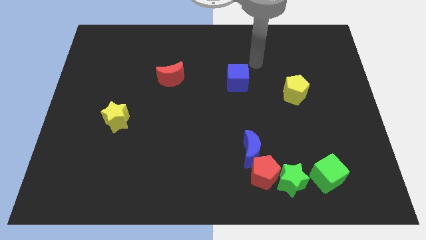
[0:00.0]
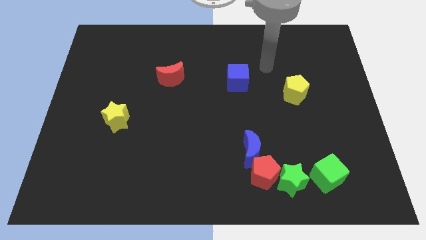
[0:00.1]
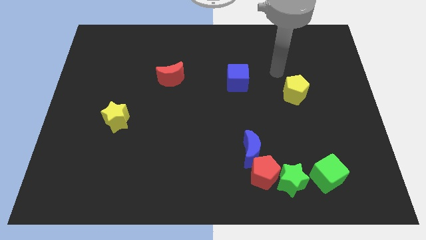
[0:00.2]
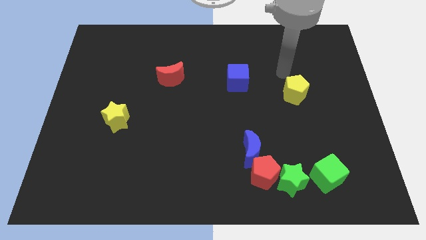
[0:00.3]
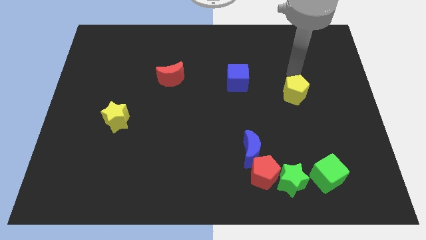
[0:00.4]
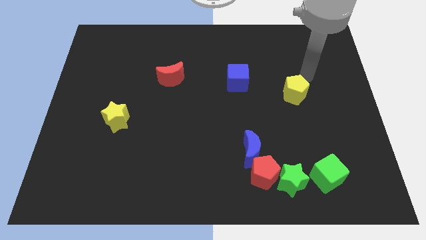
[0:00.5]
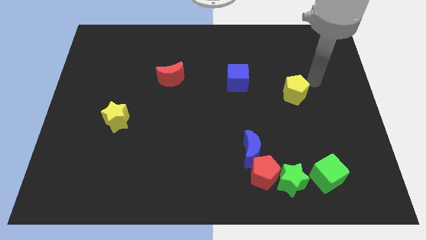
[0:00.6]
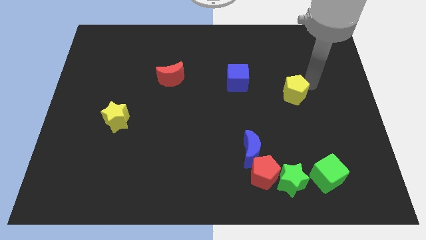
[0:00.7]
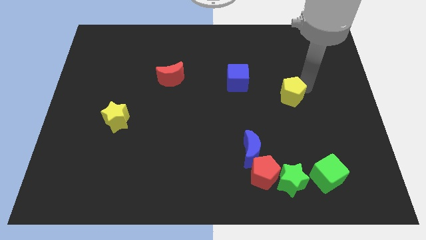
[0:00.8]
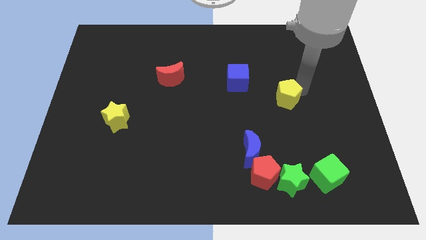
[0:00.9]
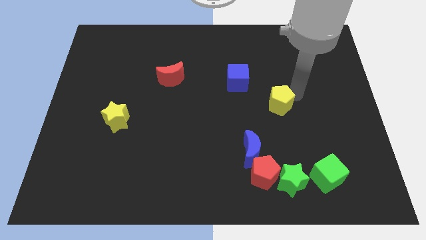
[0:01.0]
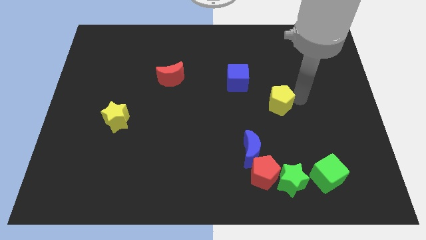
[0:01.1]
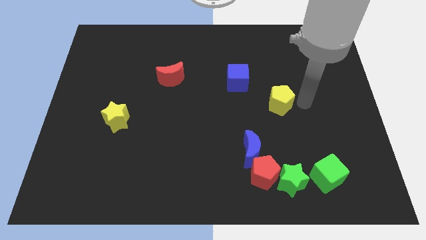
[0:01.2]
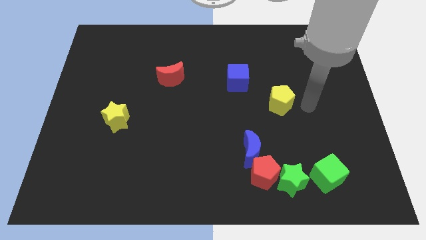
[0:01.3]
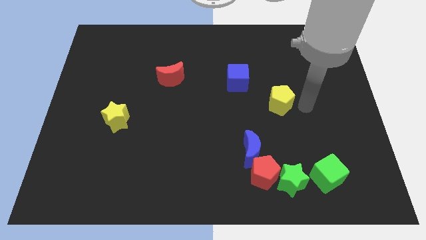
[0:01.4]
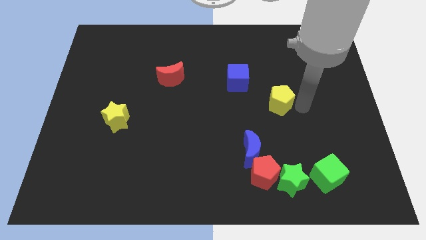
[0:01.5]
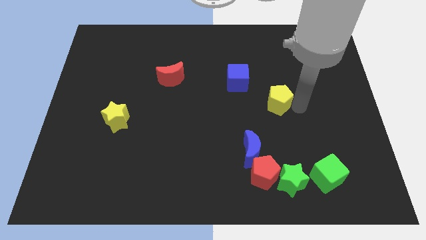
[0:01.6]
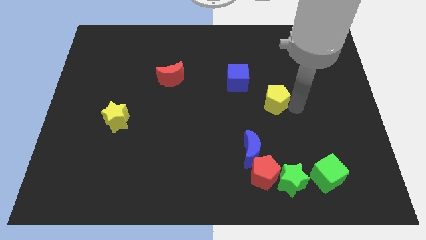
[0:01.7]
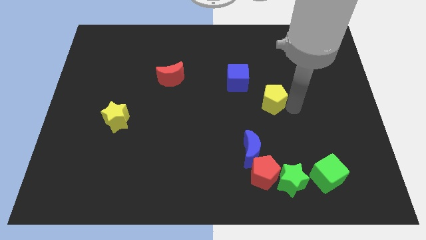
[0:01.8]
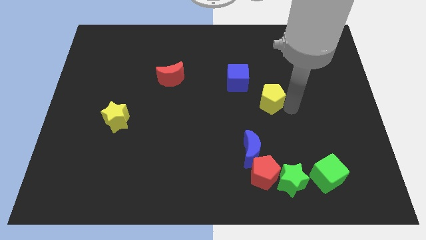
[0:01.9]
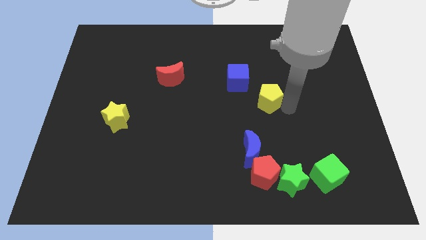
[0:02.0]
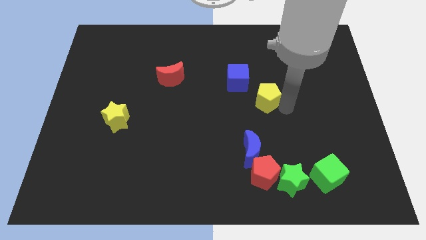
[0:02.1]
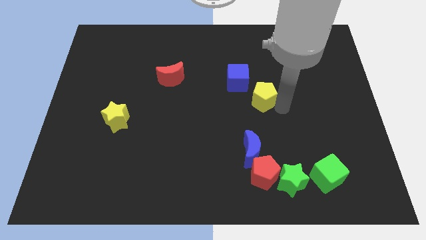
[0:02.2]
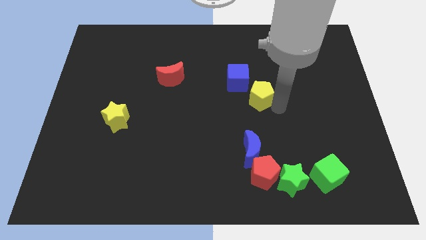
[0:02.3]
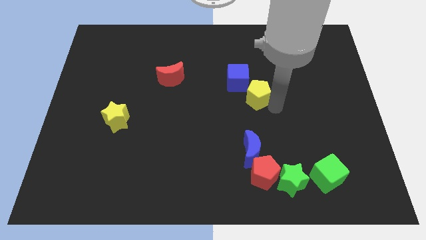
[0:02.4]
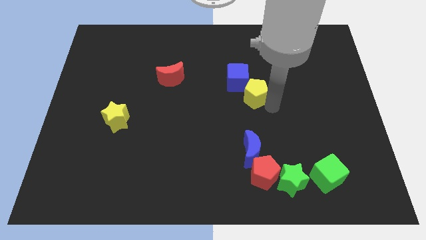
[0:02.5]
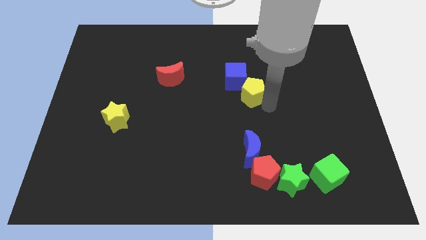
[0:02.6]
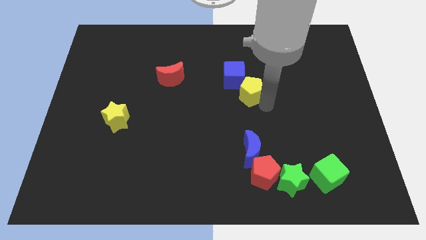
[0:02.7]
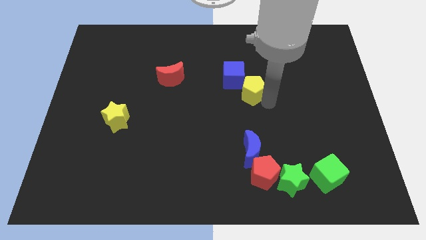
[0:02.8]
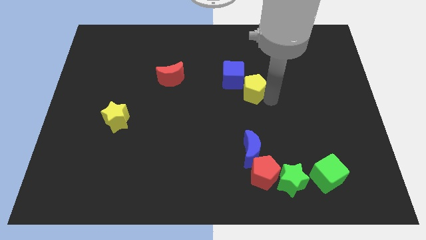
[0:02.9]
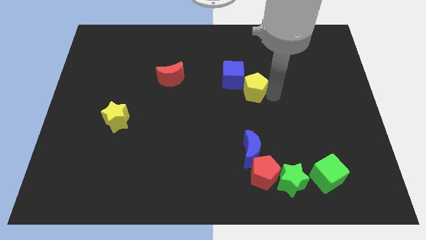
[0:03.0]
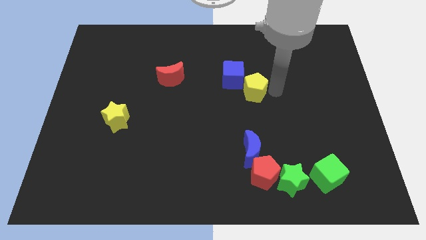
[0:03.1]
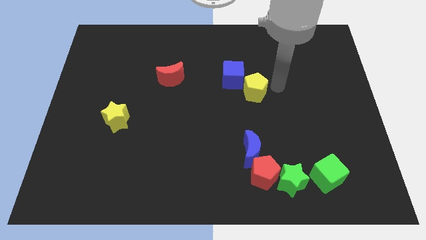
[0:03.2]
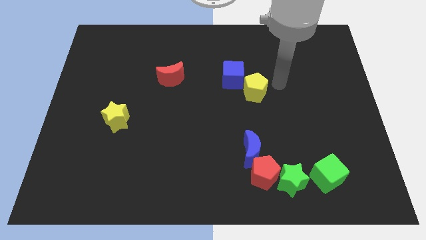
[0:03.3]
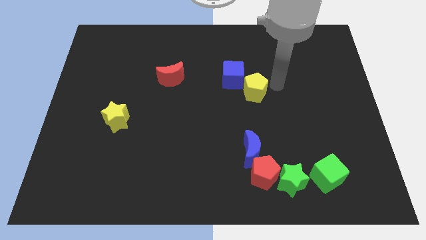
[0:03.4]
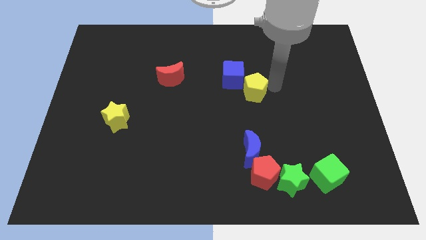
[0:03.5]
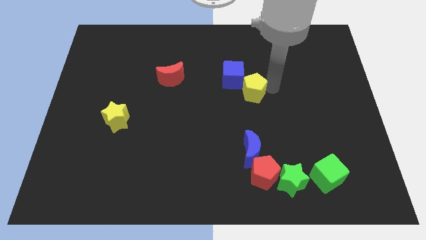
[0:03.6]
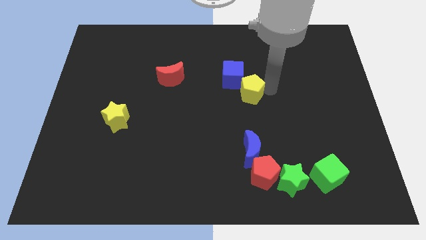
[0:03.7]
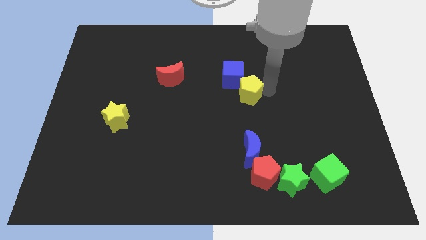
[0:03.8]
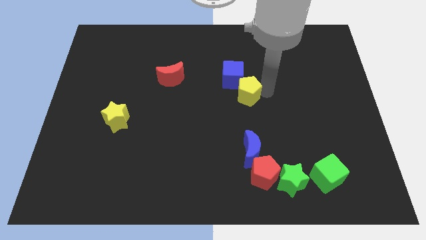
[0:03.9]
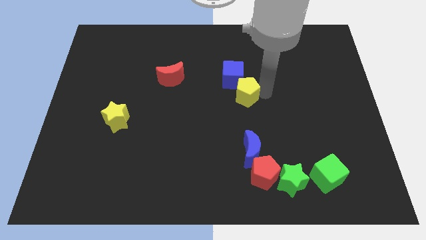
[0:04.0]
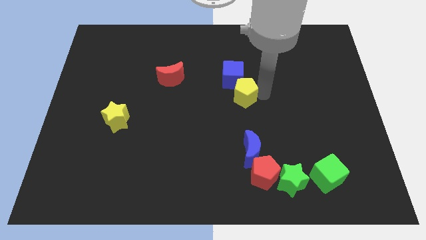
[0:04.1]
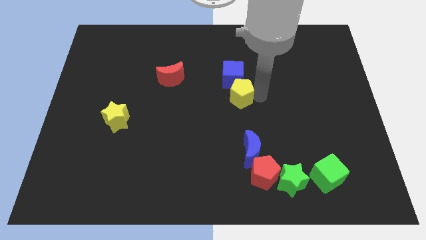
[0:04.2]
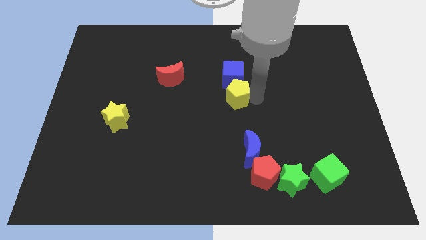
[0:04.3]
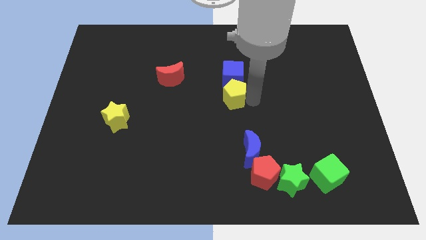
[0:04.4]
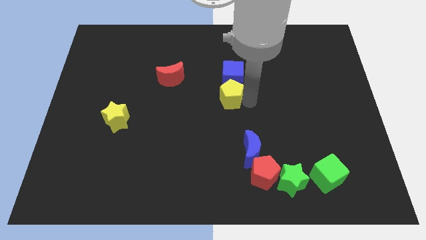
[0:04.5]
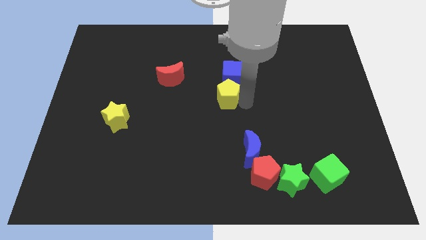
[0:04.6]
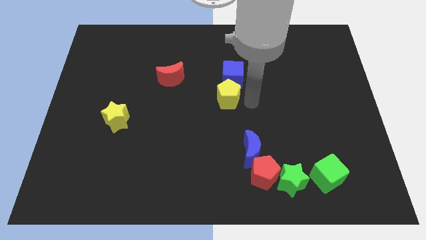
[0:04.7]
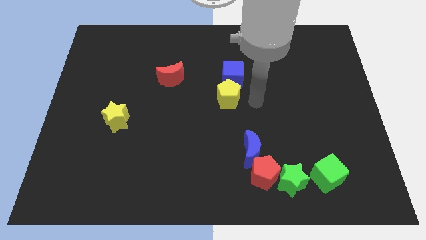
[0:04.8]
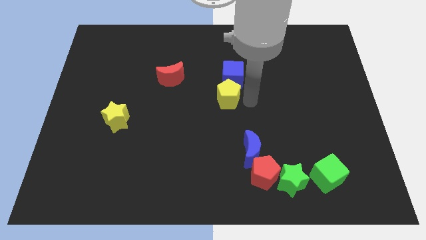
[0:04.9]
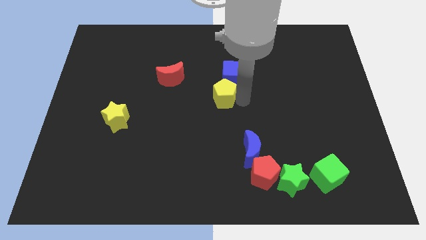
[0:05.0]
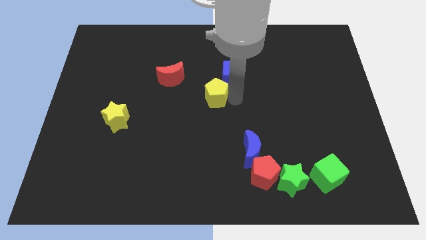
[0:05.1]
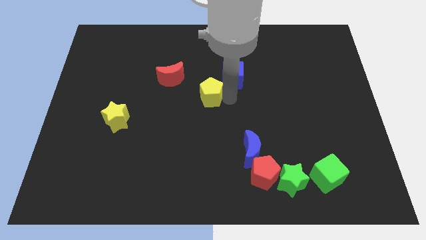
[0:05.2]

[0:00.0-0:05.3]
move the yellow pentagon to the left

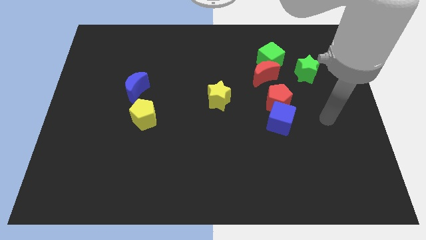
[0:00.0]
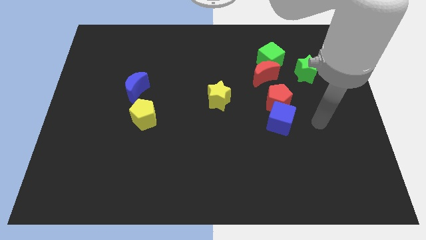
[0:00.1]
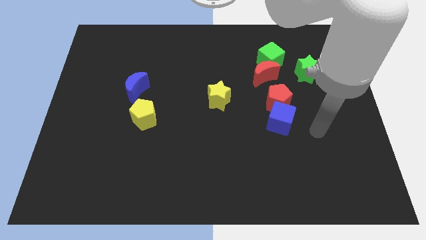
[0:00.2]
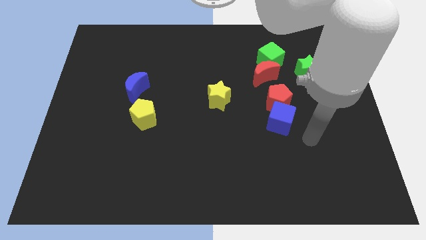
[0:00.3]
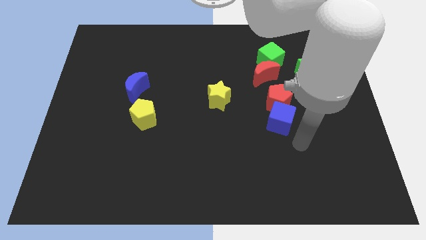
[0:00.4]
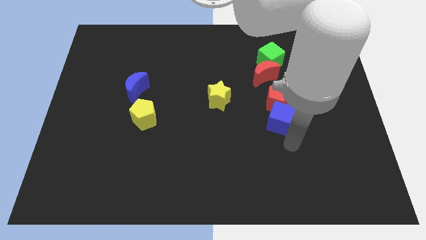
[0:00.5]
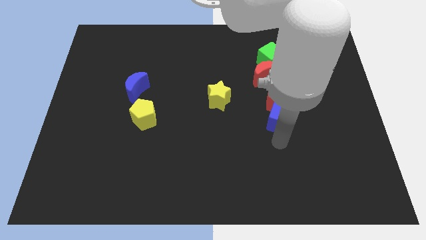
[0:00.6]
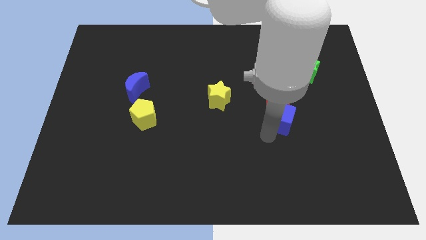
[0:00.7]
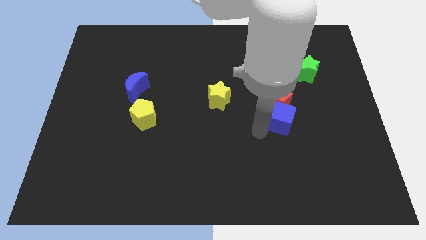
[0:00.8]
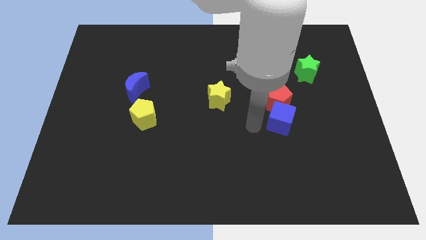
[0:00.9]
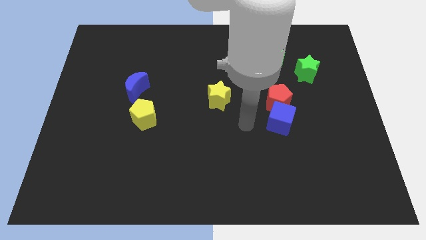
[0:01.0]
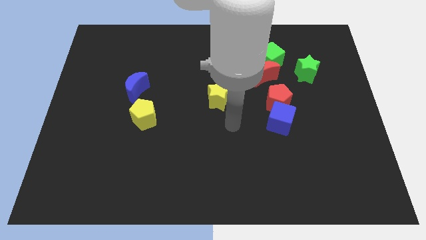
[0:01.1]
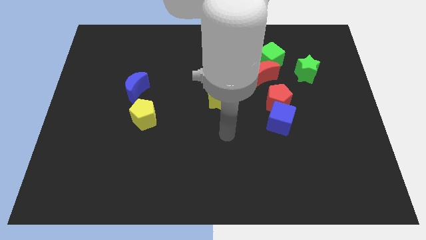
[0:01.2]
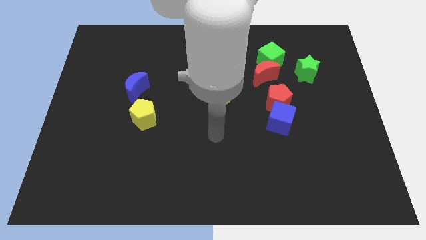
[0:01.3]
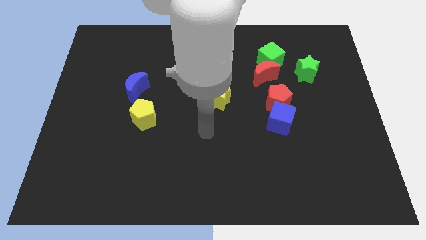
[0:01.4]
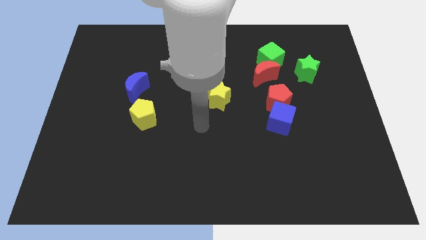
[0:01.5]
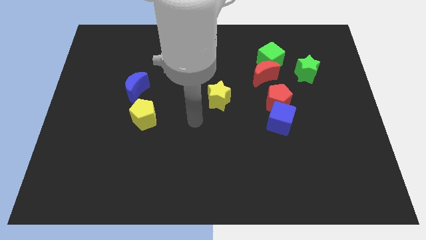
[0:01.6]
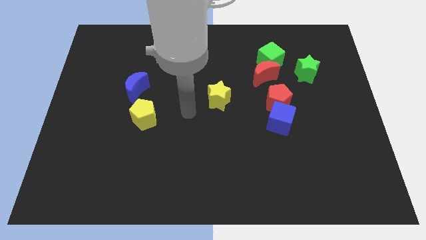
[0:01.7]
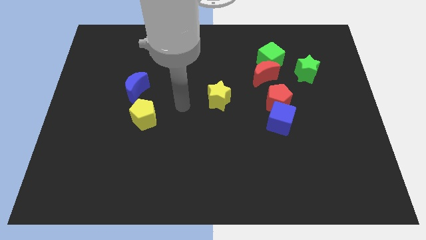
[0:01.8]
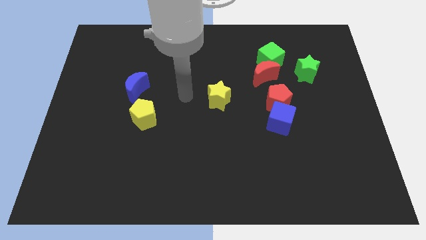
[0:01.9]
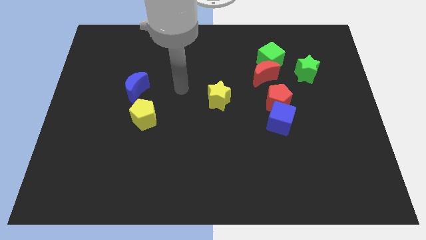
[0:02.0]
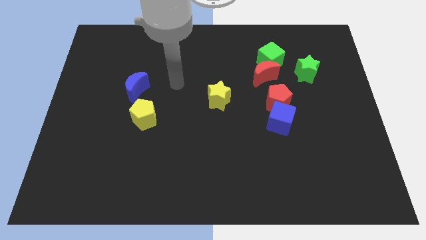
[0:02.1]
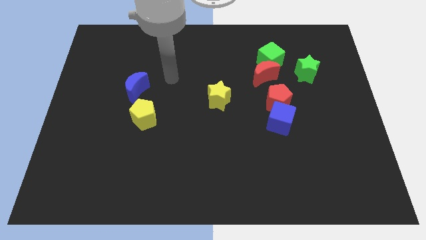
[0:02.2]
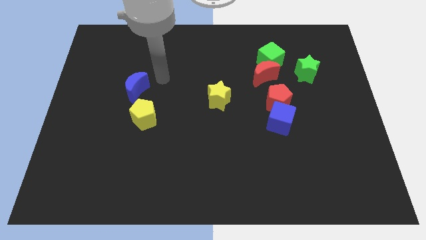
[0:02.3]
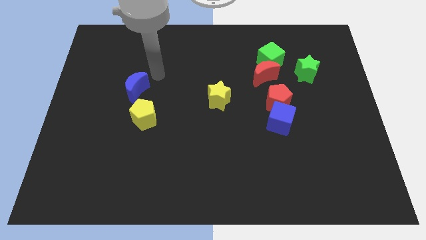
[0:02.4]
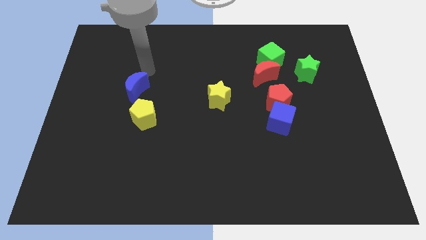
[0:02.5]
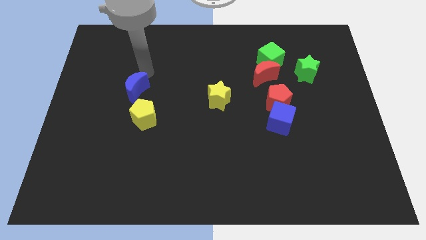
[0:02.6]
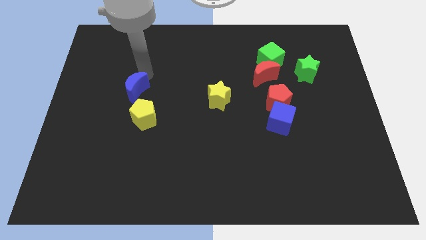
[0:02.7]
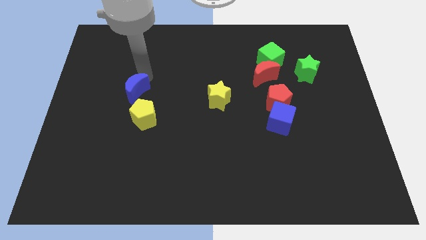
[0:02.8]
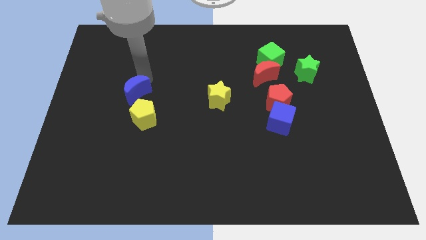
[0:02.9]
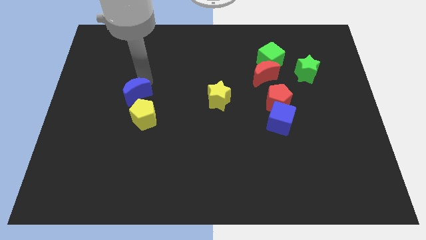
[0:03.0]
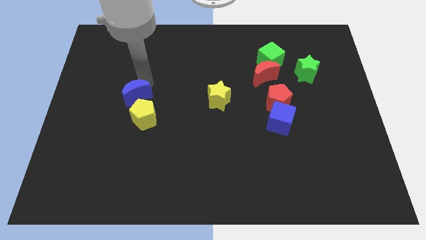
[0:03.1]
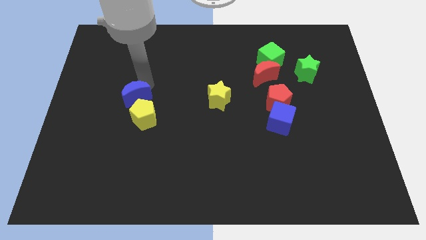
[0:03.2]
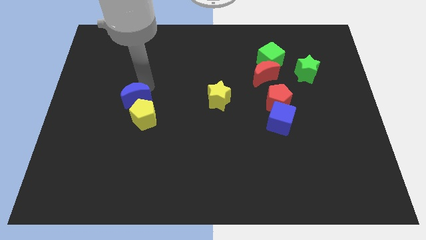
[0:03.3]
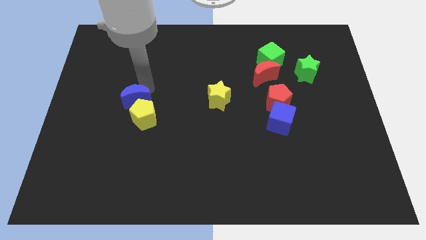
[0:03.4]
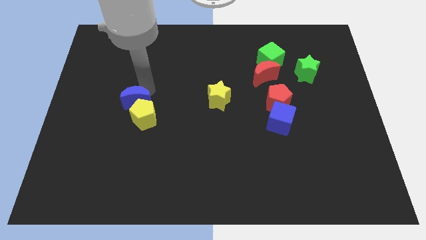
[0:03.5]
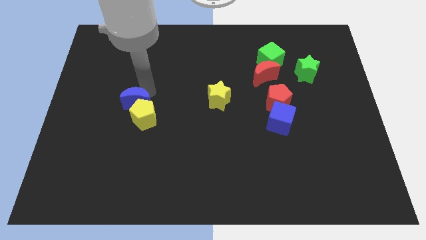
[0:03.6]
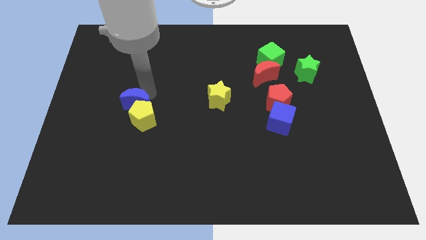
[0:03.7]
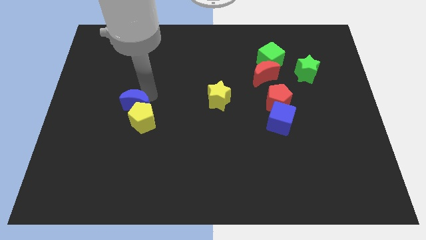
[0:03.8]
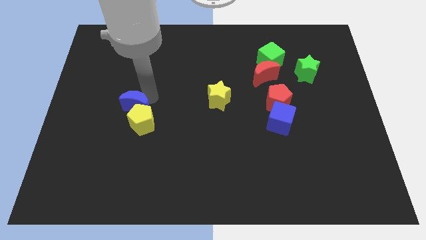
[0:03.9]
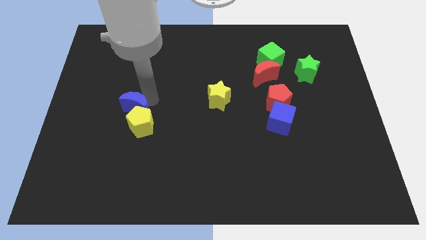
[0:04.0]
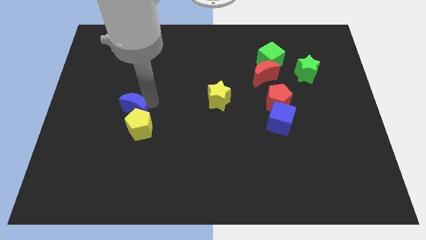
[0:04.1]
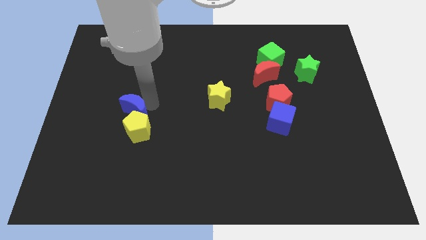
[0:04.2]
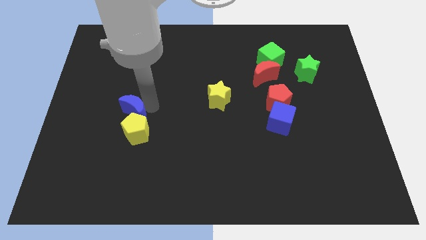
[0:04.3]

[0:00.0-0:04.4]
push the blue moon a little down
